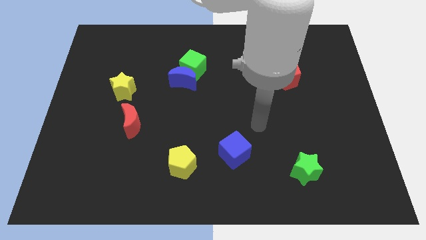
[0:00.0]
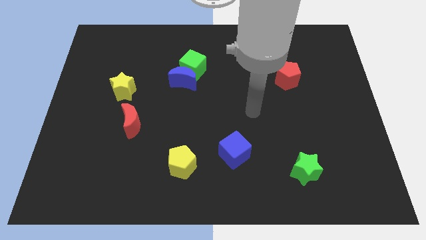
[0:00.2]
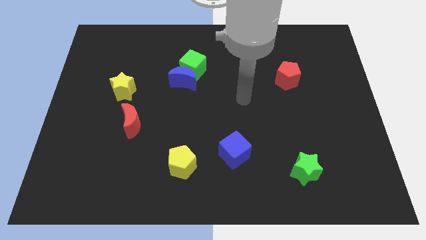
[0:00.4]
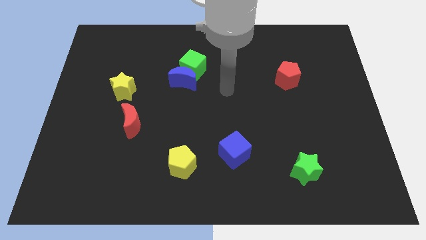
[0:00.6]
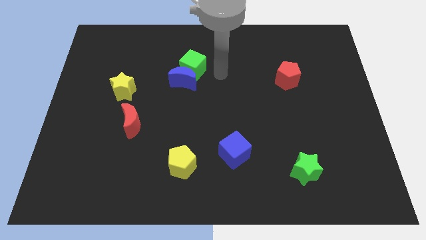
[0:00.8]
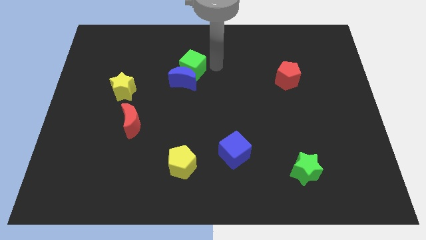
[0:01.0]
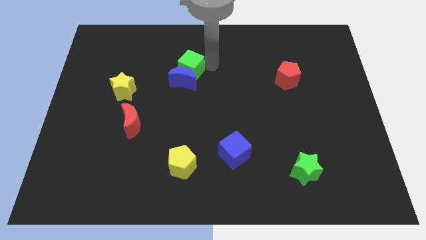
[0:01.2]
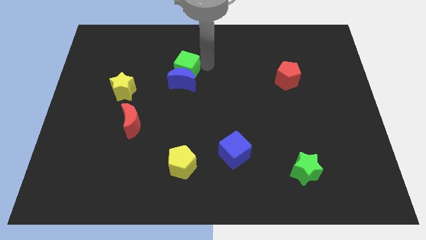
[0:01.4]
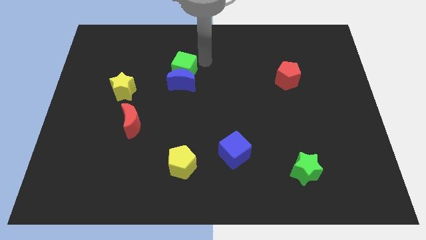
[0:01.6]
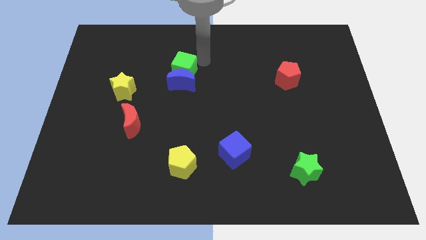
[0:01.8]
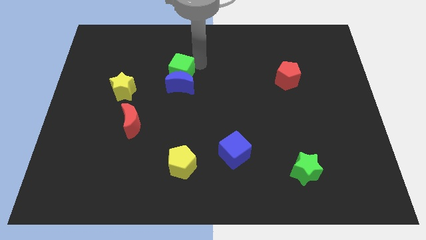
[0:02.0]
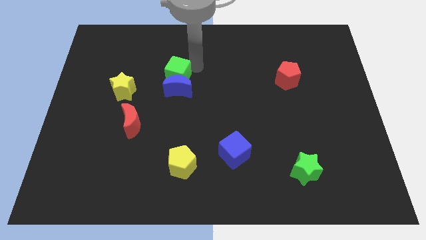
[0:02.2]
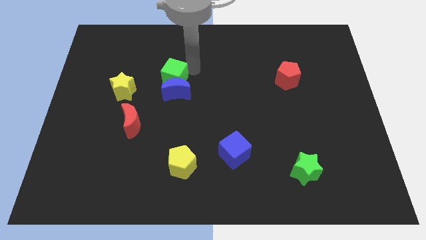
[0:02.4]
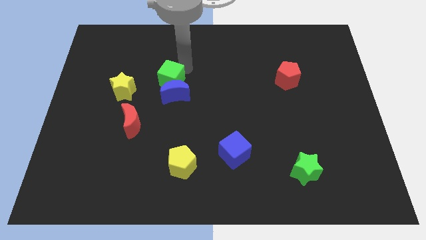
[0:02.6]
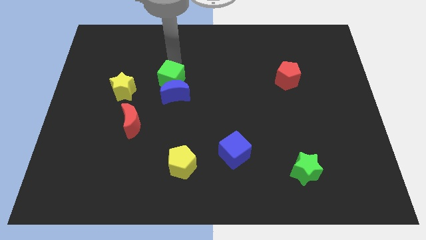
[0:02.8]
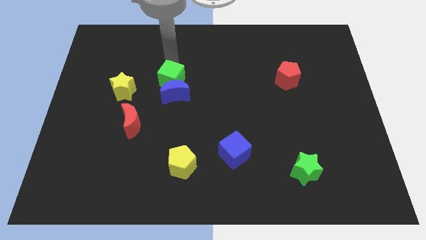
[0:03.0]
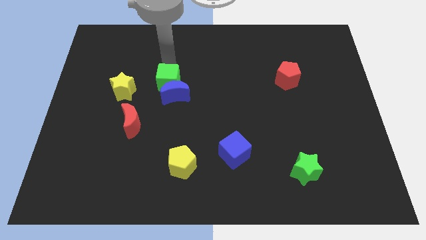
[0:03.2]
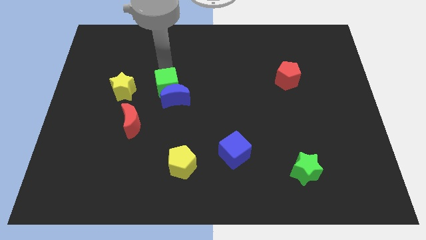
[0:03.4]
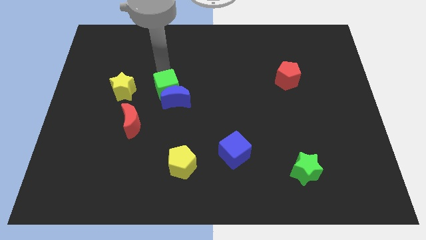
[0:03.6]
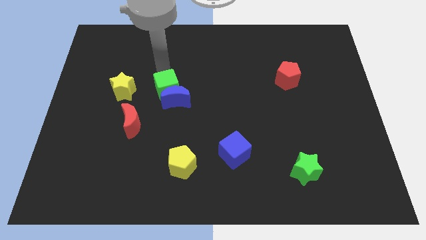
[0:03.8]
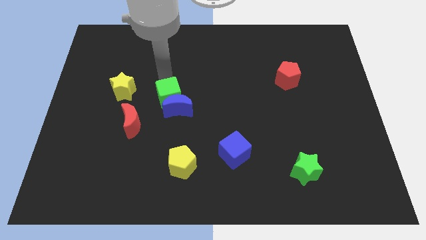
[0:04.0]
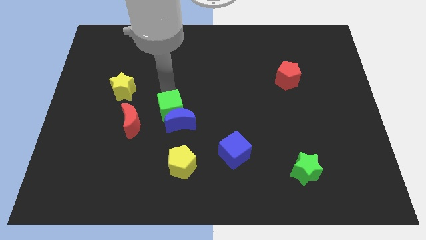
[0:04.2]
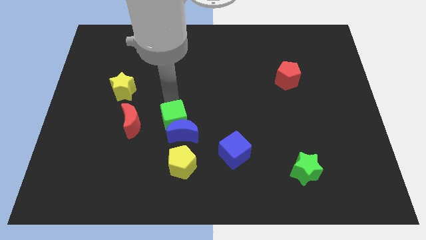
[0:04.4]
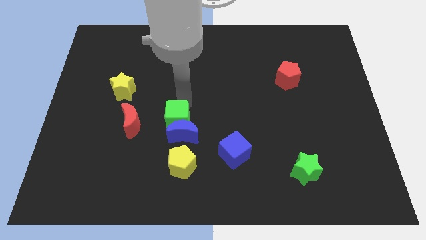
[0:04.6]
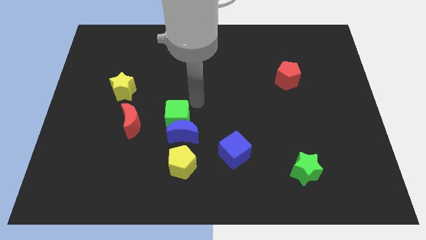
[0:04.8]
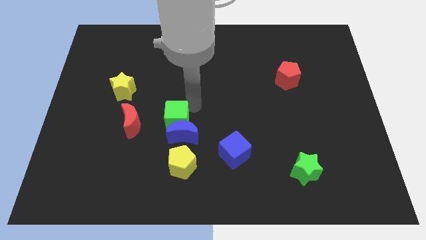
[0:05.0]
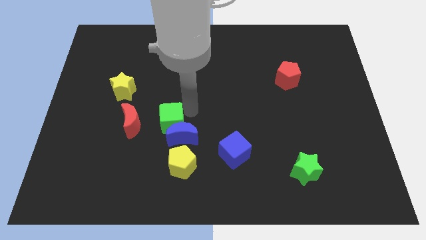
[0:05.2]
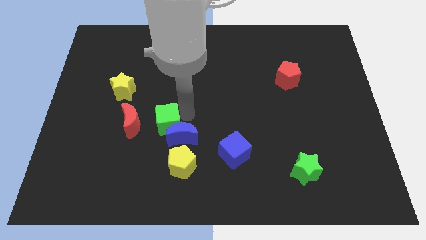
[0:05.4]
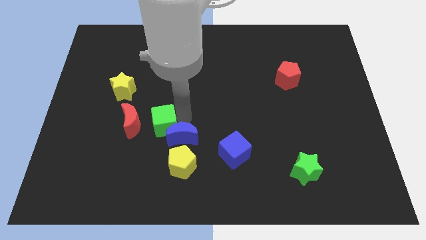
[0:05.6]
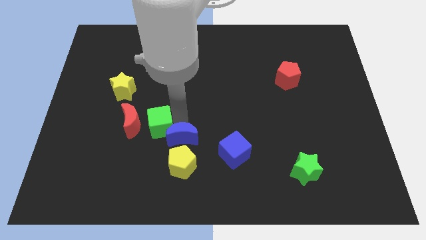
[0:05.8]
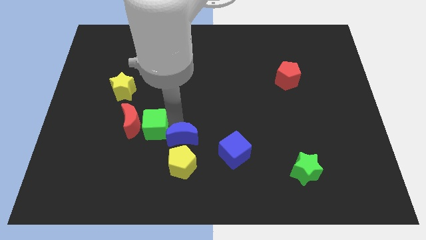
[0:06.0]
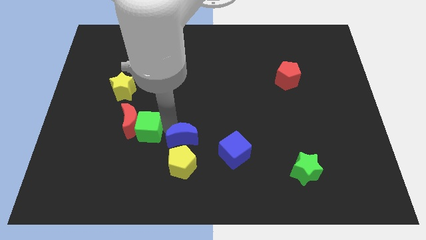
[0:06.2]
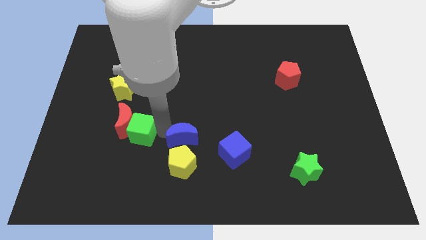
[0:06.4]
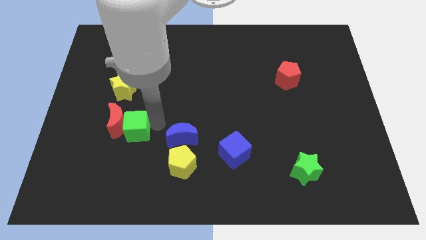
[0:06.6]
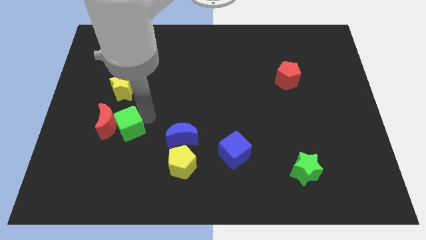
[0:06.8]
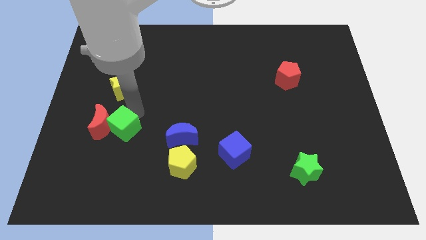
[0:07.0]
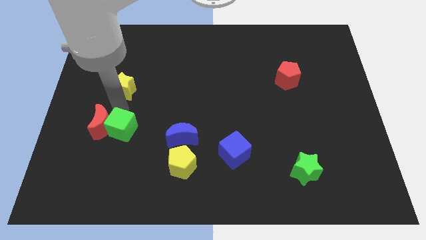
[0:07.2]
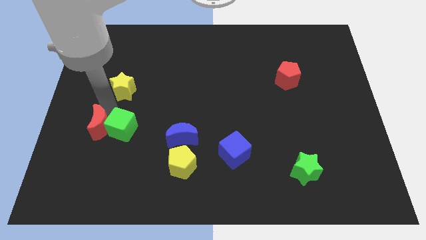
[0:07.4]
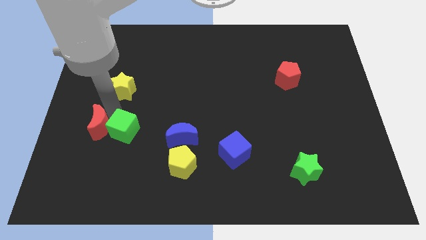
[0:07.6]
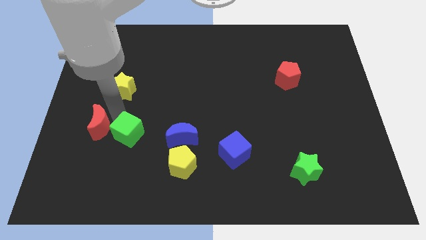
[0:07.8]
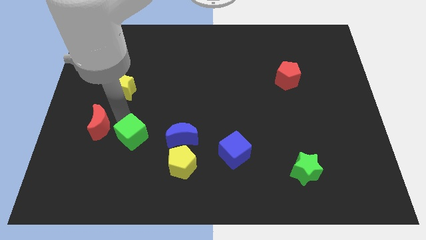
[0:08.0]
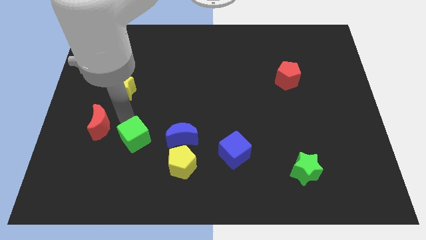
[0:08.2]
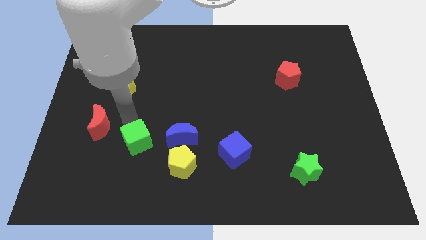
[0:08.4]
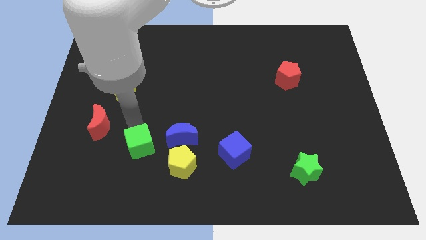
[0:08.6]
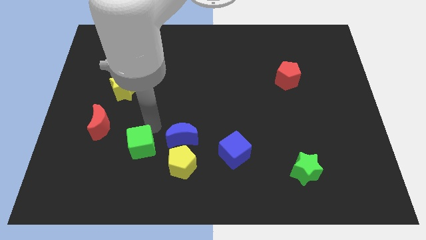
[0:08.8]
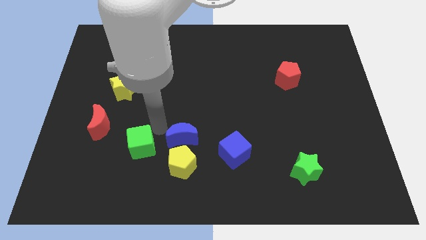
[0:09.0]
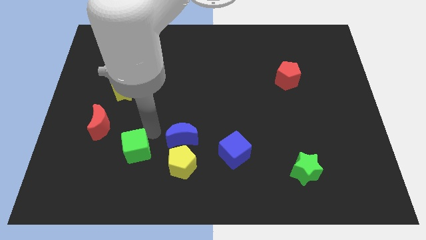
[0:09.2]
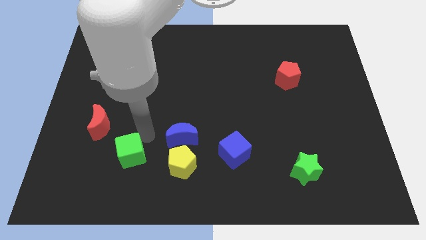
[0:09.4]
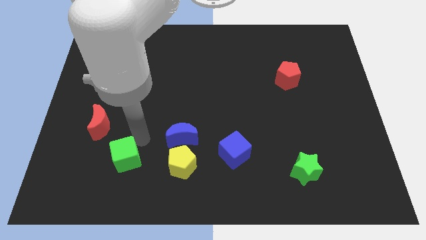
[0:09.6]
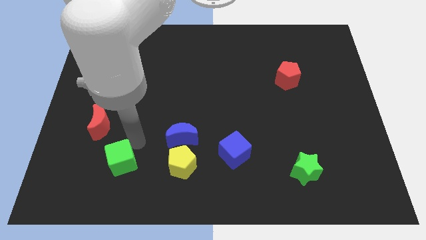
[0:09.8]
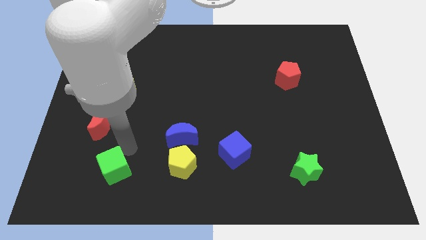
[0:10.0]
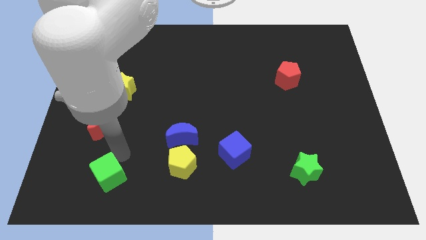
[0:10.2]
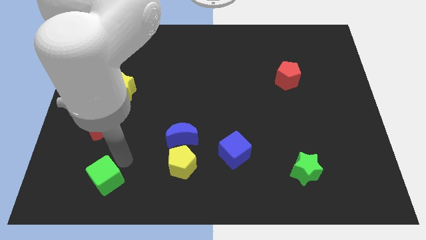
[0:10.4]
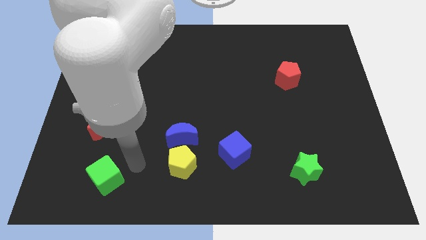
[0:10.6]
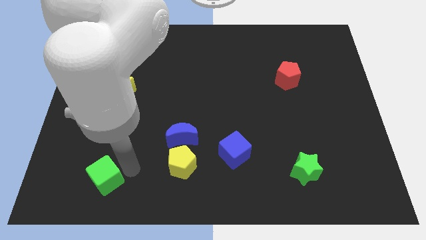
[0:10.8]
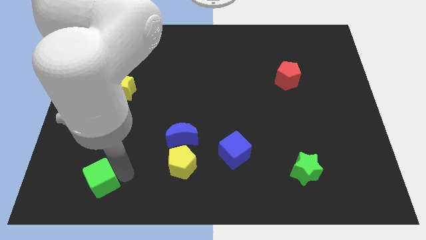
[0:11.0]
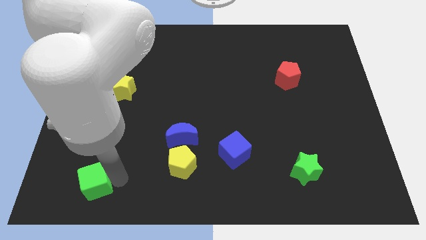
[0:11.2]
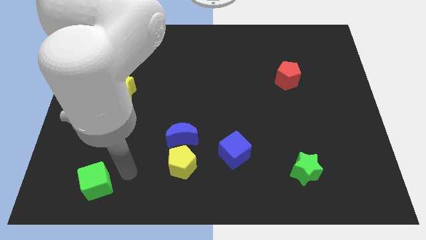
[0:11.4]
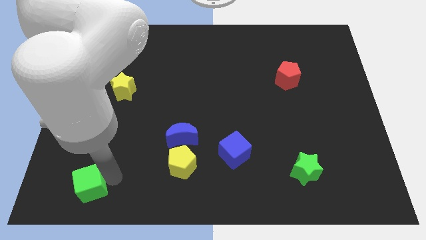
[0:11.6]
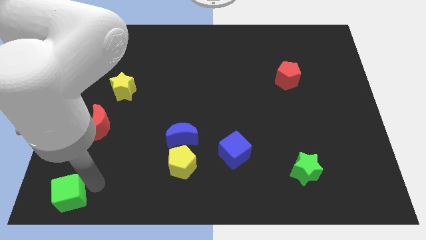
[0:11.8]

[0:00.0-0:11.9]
move the green cube to the bottom left of the board

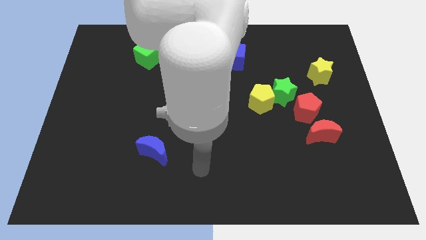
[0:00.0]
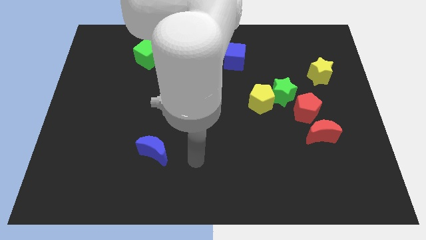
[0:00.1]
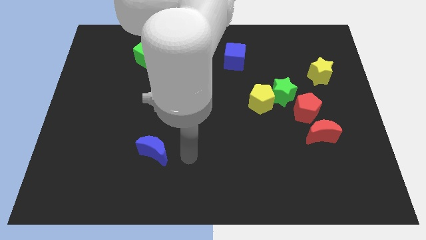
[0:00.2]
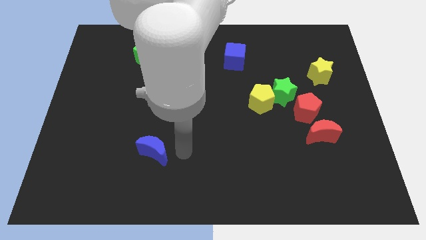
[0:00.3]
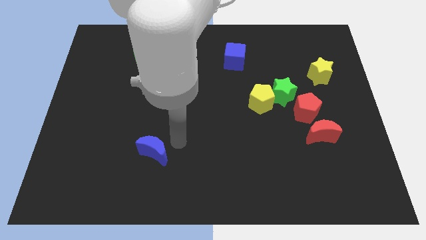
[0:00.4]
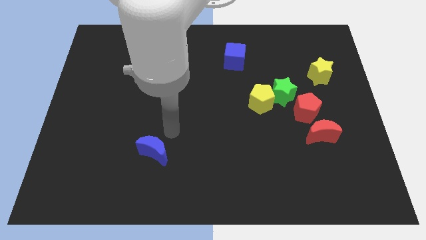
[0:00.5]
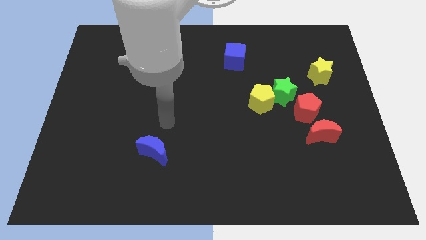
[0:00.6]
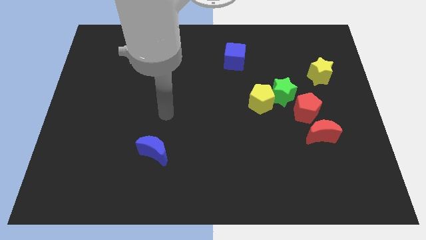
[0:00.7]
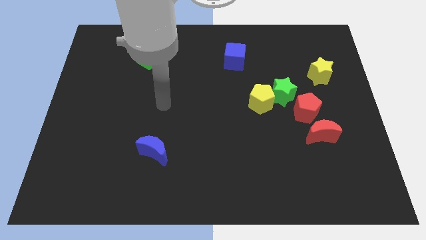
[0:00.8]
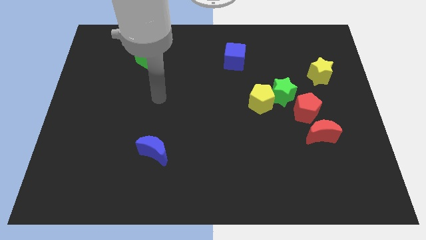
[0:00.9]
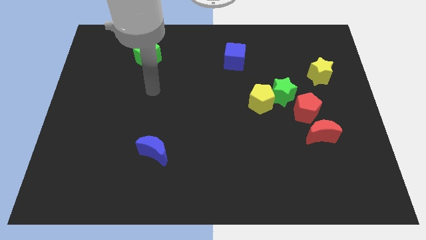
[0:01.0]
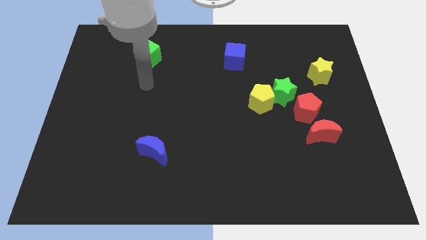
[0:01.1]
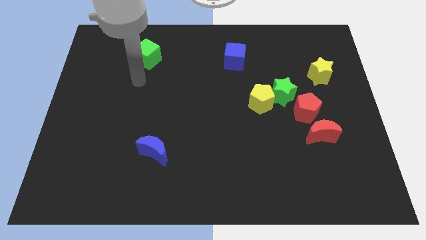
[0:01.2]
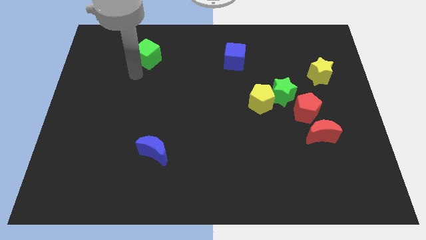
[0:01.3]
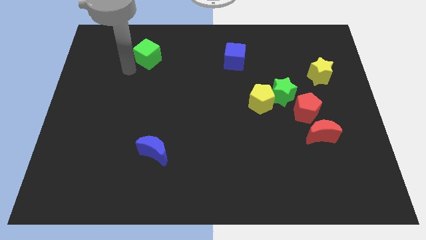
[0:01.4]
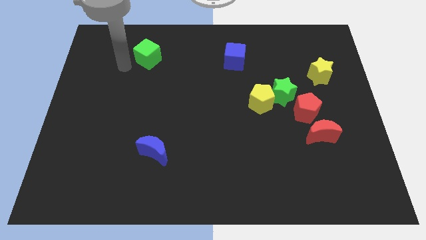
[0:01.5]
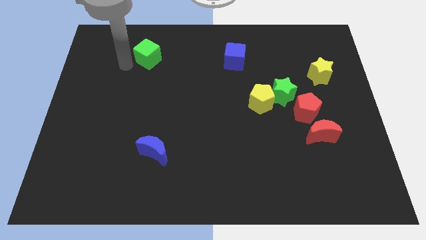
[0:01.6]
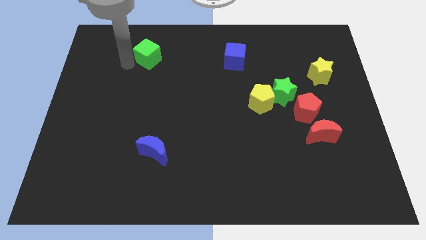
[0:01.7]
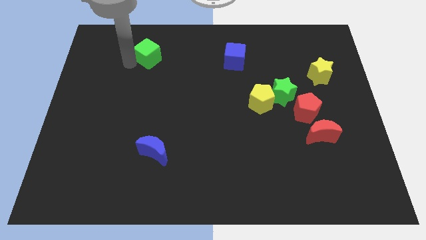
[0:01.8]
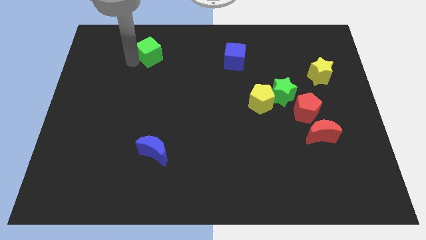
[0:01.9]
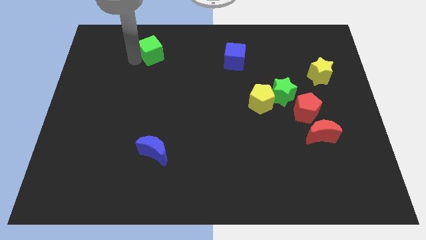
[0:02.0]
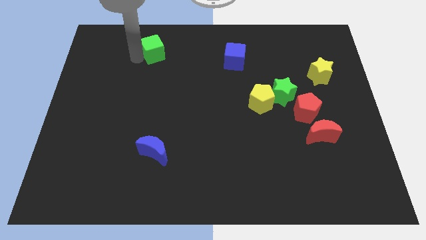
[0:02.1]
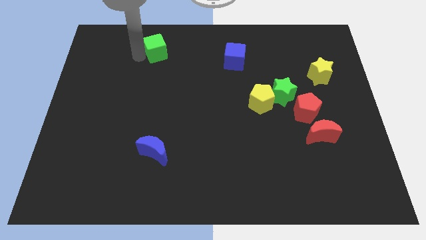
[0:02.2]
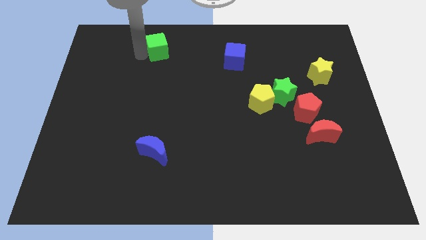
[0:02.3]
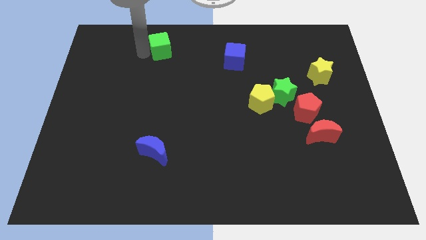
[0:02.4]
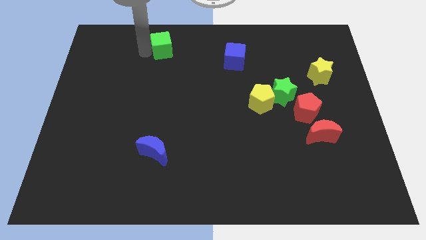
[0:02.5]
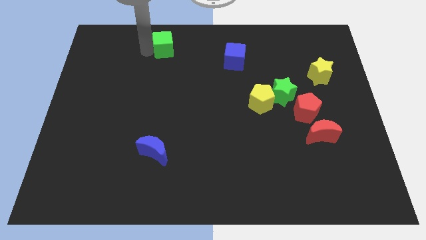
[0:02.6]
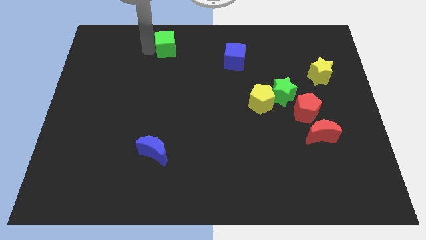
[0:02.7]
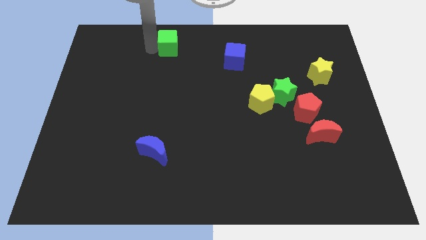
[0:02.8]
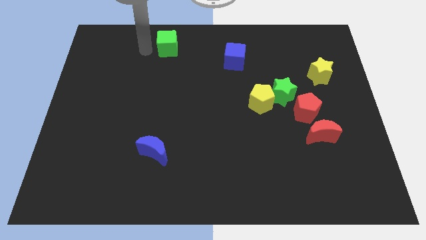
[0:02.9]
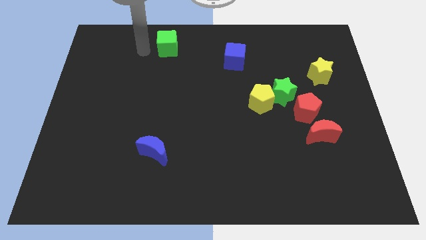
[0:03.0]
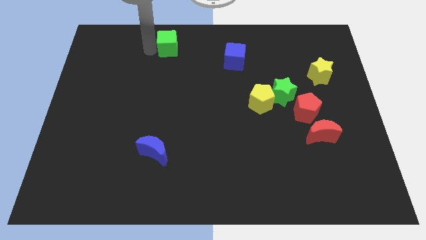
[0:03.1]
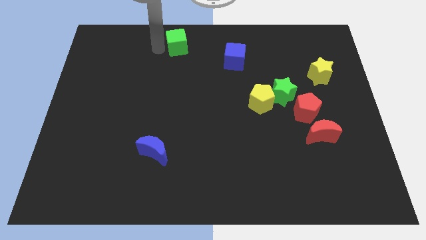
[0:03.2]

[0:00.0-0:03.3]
put the green cube to the towards your base
